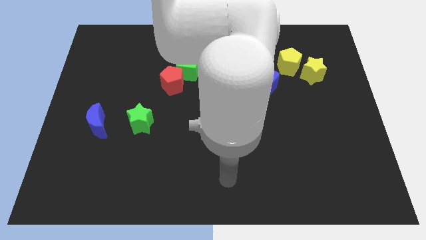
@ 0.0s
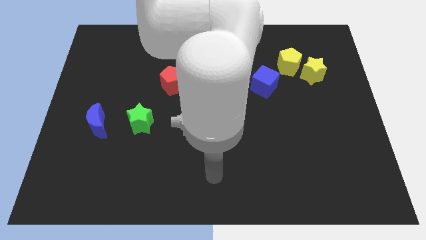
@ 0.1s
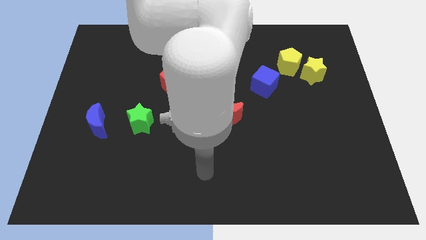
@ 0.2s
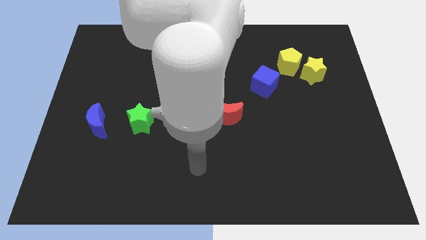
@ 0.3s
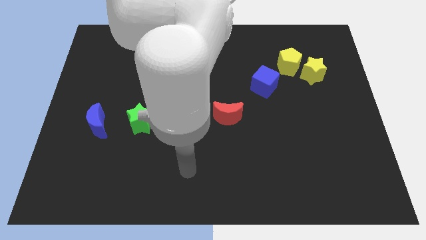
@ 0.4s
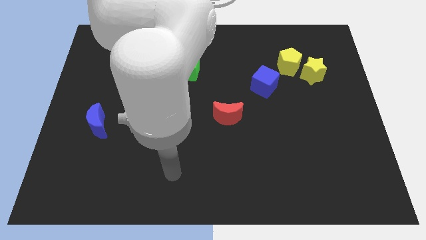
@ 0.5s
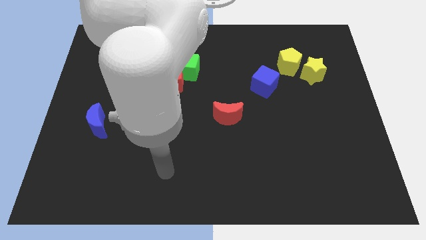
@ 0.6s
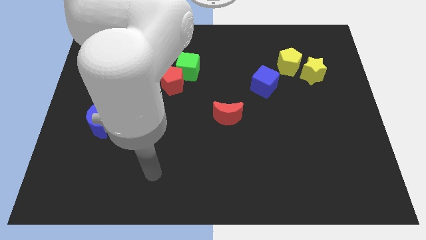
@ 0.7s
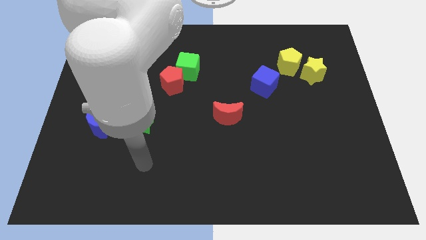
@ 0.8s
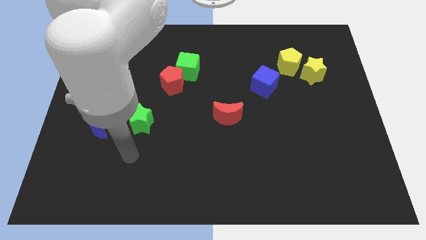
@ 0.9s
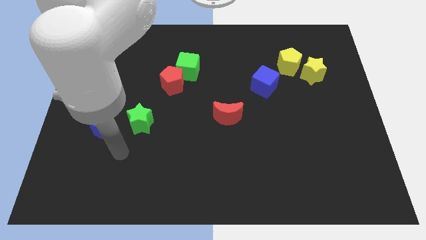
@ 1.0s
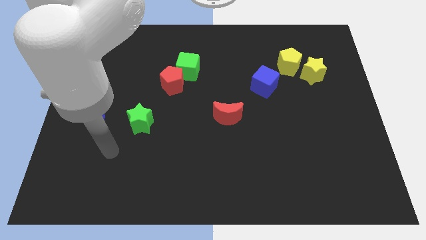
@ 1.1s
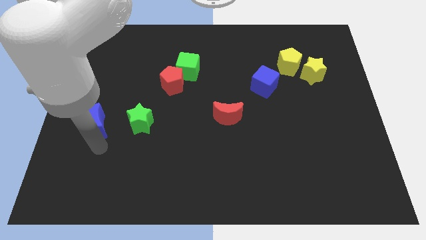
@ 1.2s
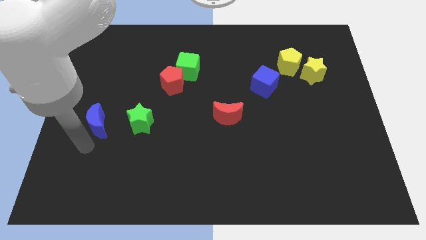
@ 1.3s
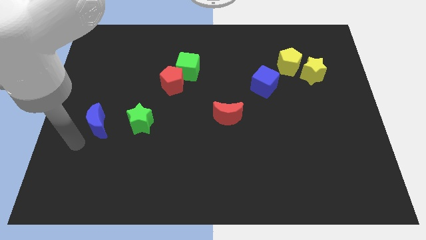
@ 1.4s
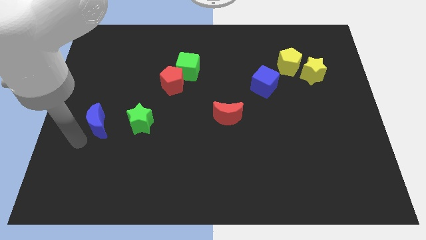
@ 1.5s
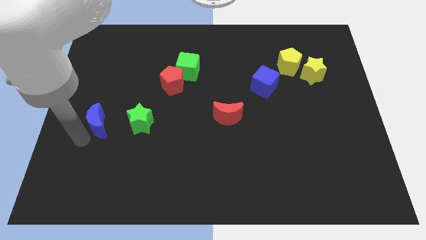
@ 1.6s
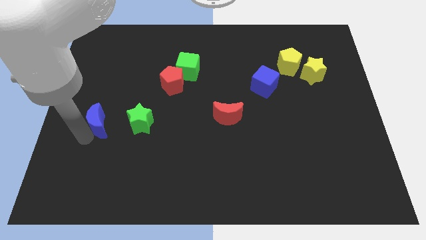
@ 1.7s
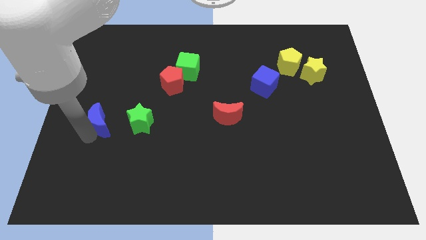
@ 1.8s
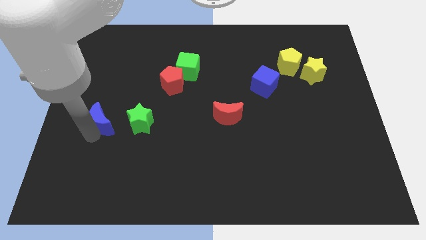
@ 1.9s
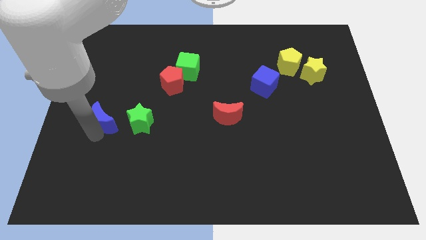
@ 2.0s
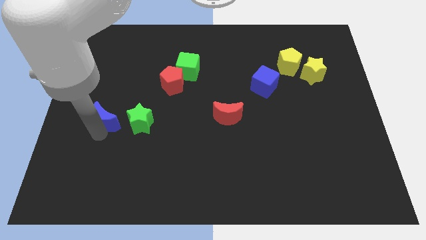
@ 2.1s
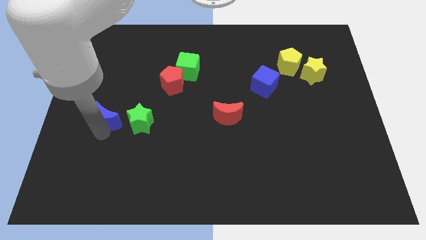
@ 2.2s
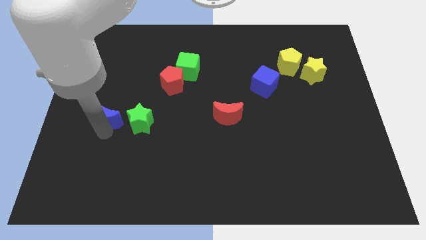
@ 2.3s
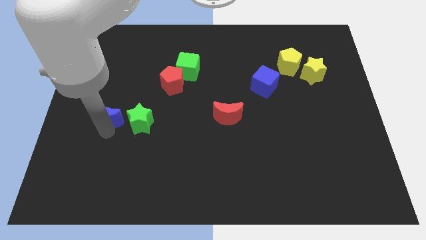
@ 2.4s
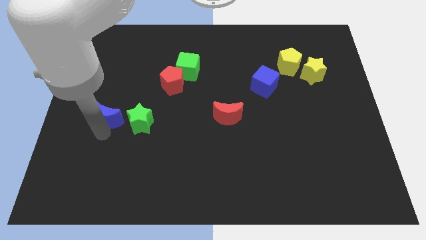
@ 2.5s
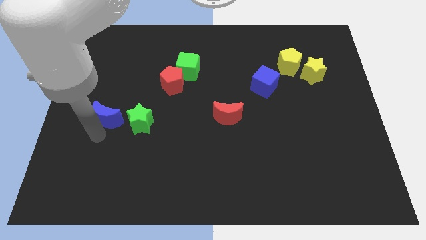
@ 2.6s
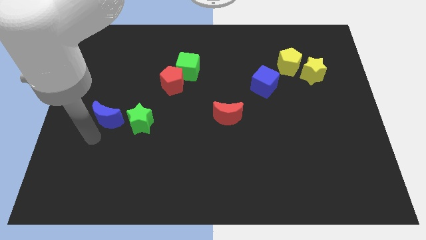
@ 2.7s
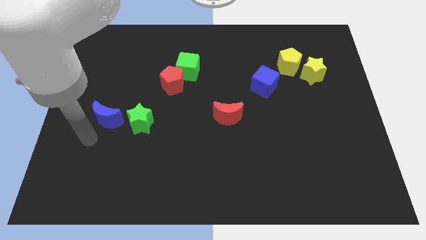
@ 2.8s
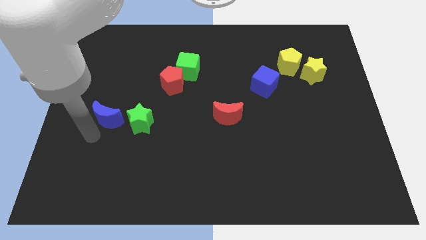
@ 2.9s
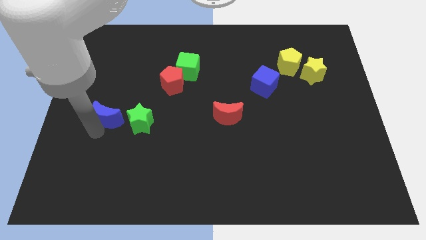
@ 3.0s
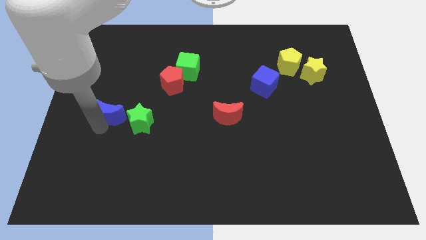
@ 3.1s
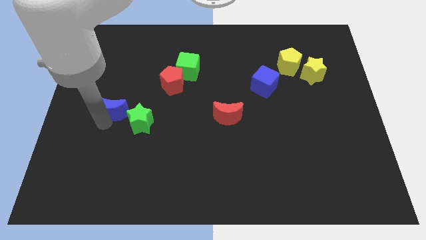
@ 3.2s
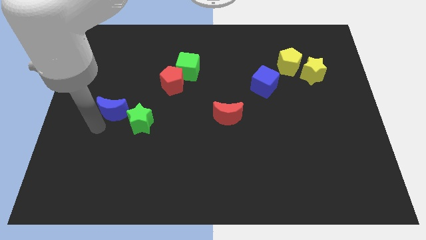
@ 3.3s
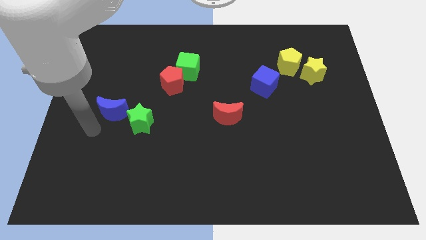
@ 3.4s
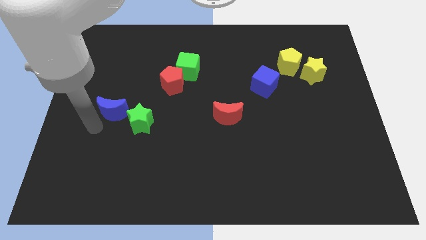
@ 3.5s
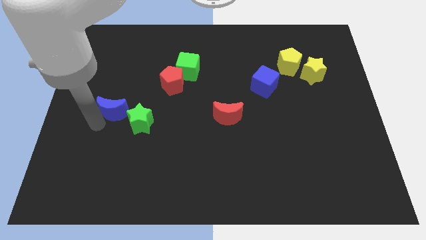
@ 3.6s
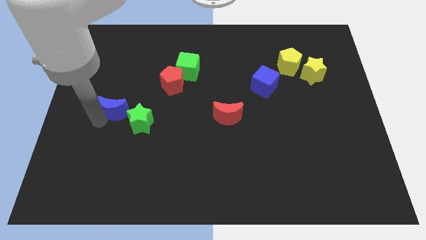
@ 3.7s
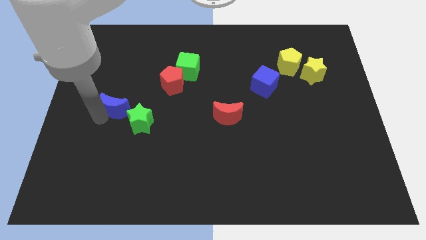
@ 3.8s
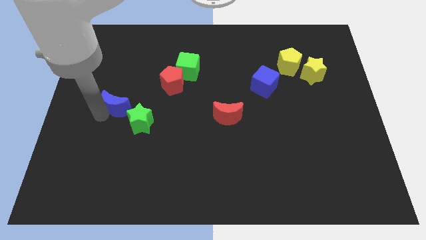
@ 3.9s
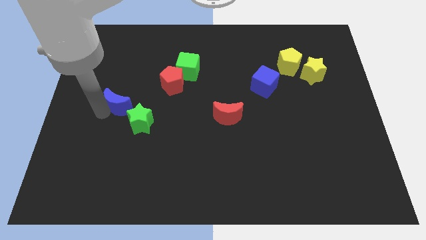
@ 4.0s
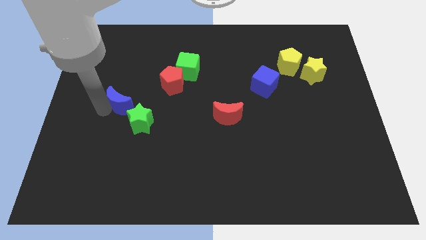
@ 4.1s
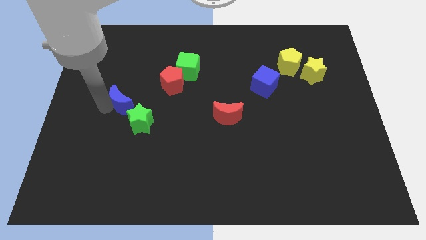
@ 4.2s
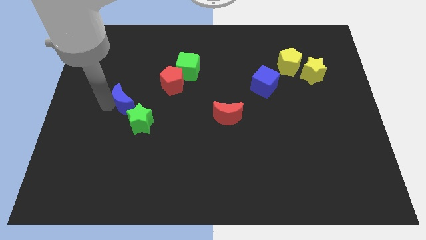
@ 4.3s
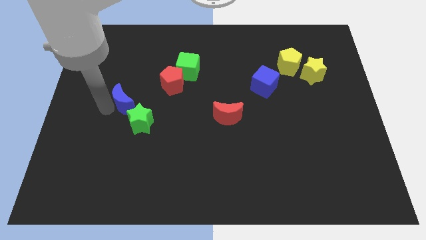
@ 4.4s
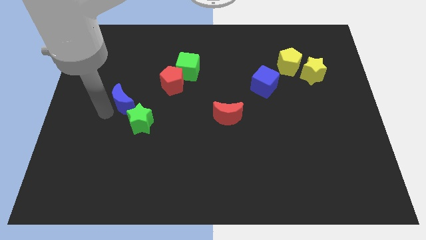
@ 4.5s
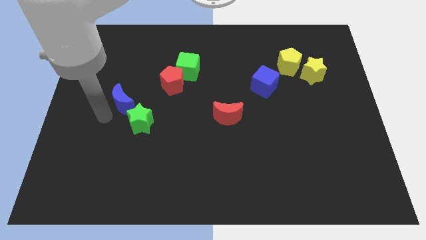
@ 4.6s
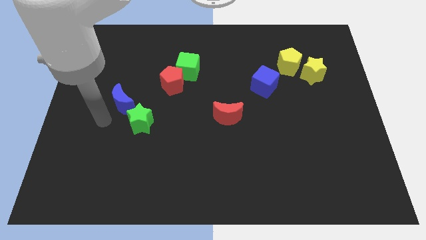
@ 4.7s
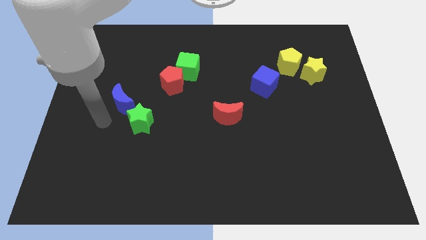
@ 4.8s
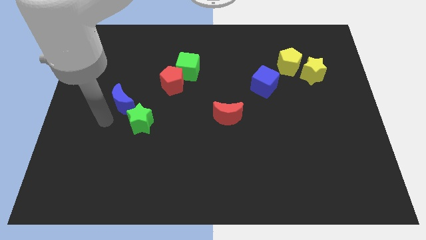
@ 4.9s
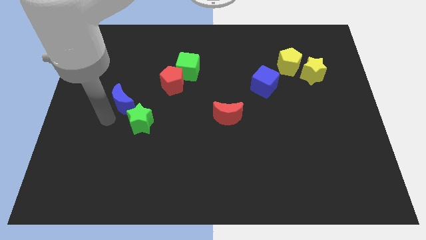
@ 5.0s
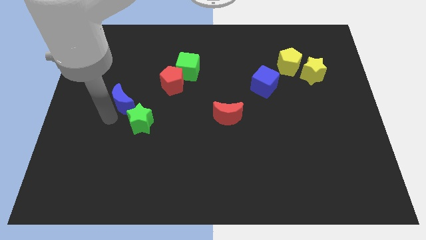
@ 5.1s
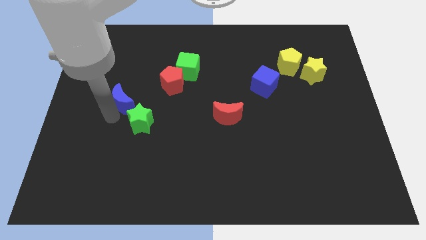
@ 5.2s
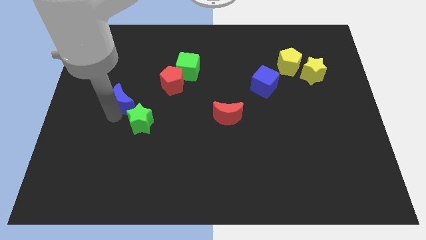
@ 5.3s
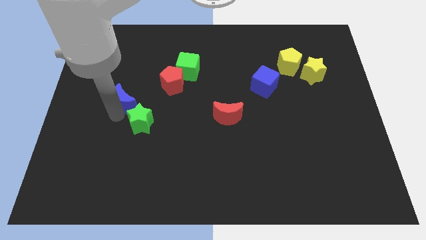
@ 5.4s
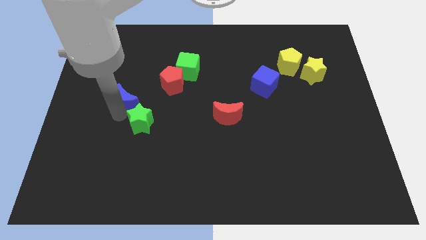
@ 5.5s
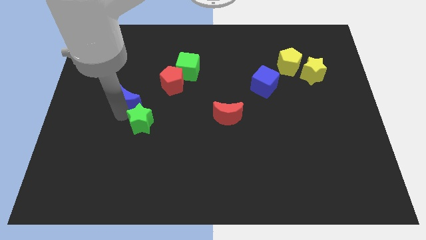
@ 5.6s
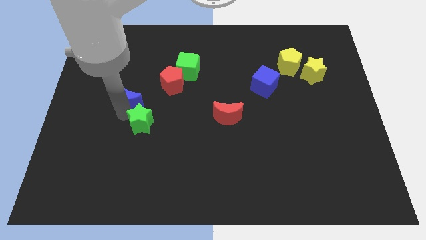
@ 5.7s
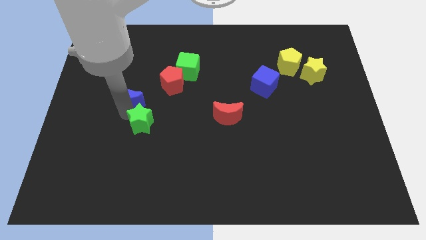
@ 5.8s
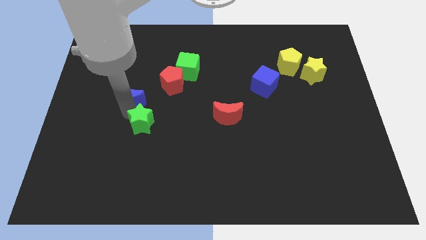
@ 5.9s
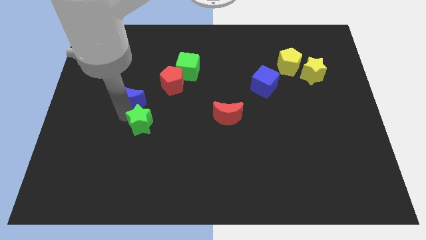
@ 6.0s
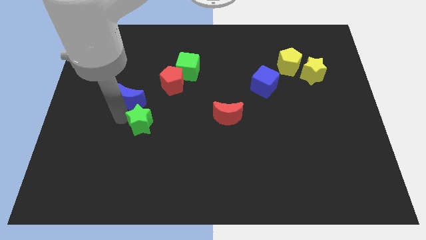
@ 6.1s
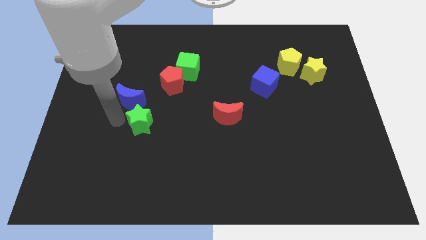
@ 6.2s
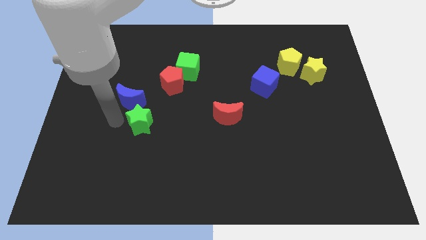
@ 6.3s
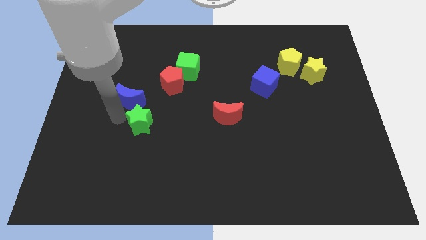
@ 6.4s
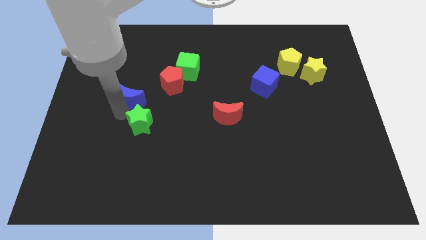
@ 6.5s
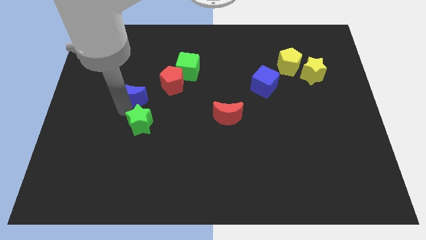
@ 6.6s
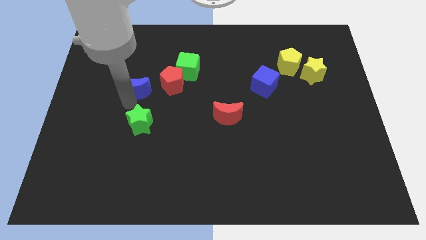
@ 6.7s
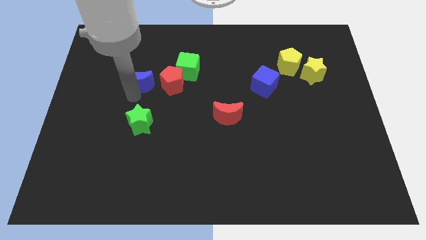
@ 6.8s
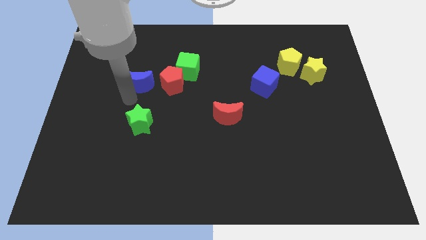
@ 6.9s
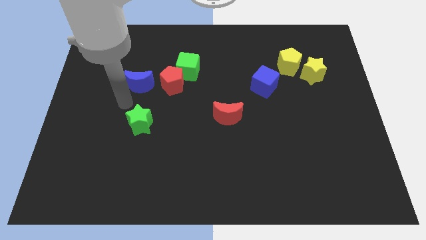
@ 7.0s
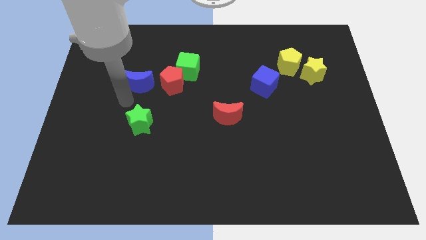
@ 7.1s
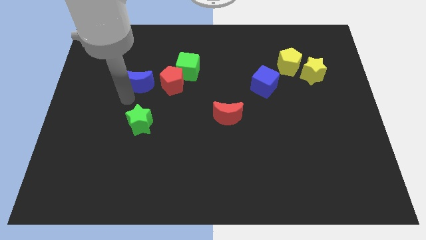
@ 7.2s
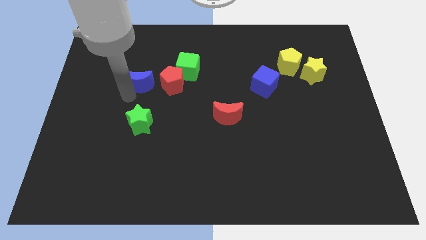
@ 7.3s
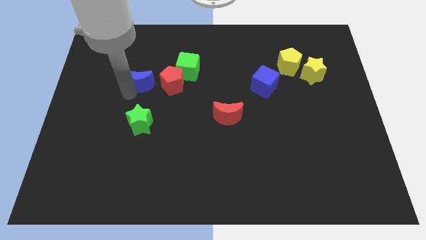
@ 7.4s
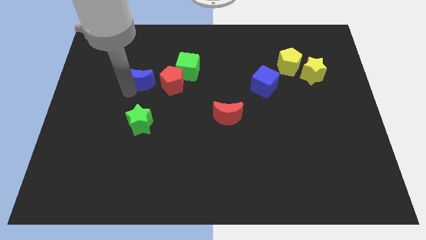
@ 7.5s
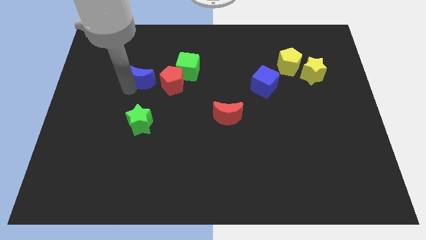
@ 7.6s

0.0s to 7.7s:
slide the blue moon to the top left of the red pentagon
